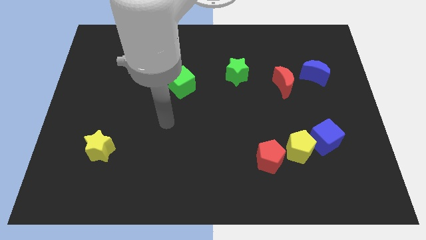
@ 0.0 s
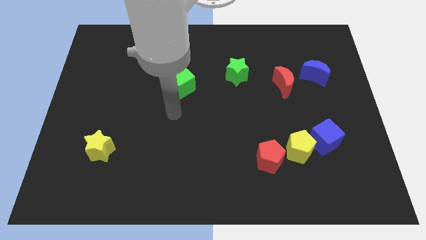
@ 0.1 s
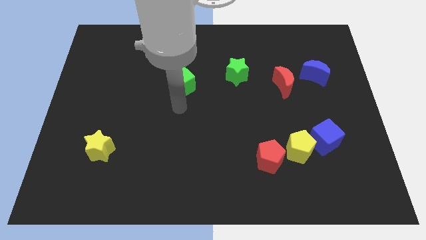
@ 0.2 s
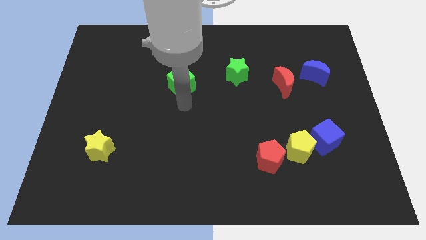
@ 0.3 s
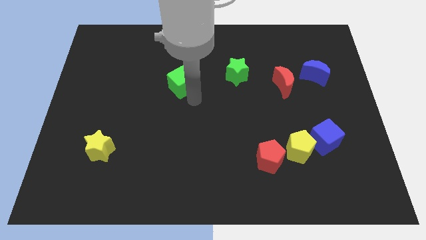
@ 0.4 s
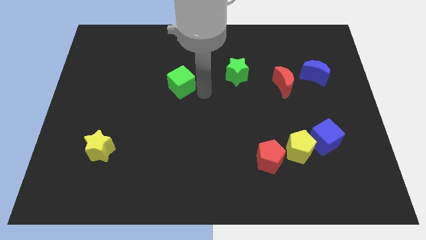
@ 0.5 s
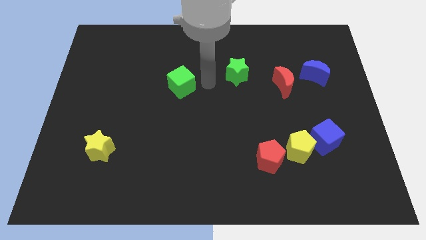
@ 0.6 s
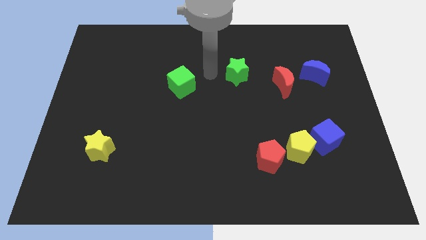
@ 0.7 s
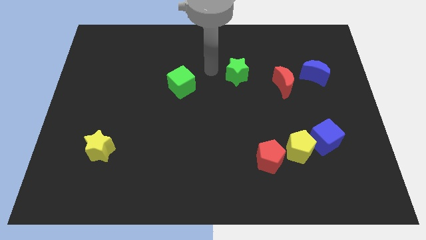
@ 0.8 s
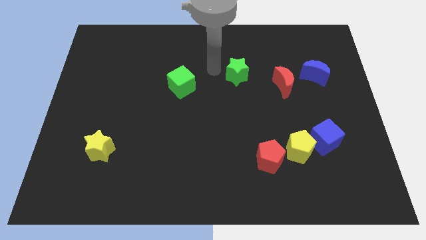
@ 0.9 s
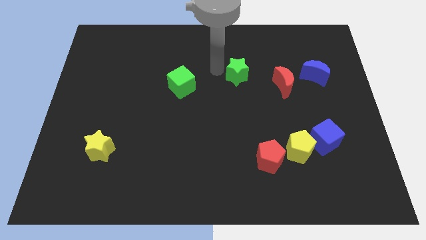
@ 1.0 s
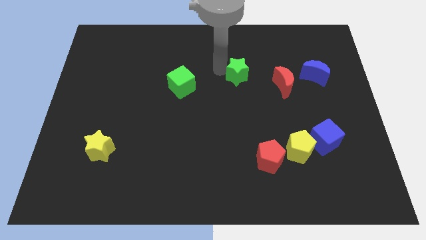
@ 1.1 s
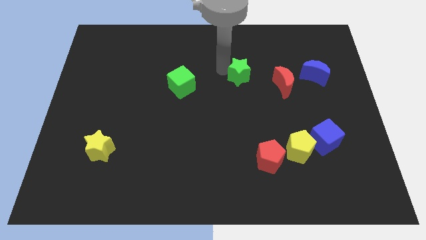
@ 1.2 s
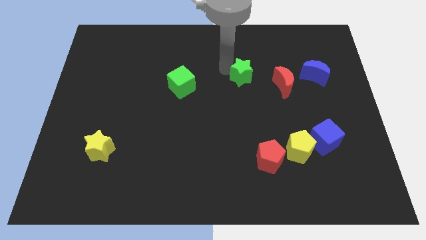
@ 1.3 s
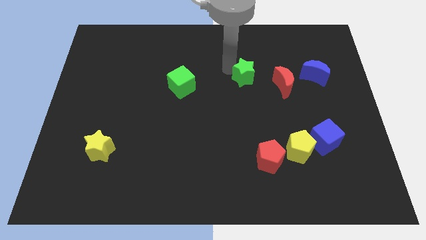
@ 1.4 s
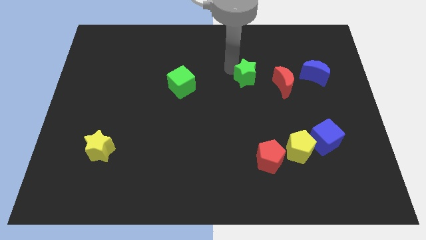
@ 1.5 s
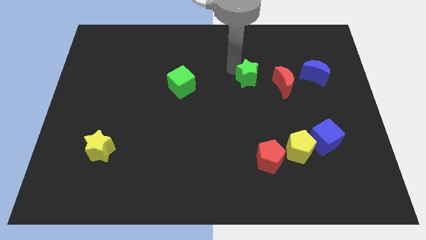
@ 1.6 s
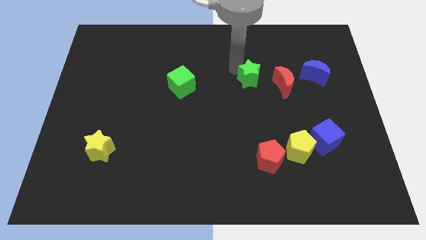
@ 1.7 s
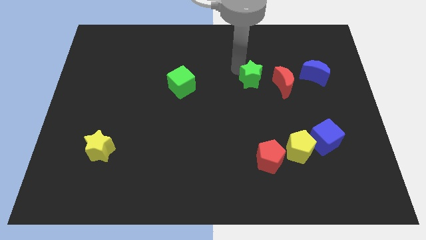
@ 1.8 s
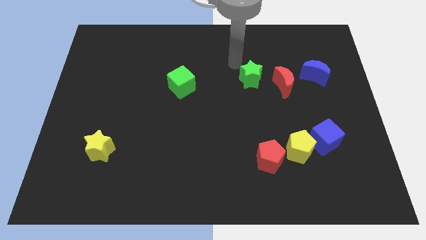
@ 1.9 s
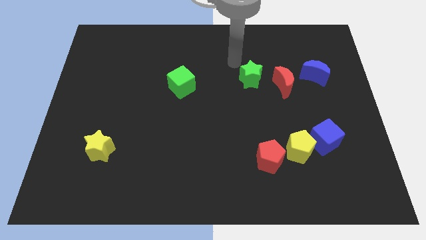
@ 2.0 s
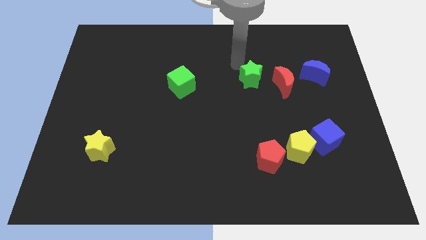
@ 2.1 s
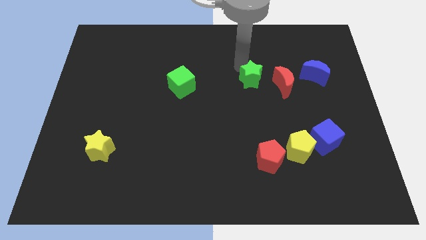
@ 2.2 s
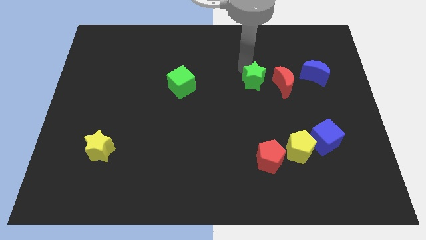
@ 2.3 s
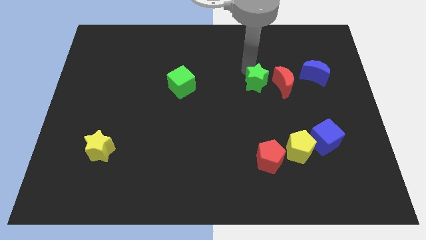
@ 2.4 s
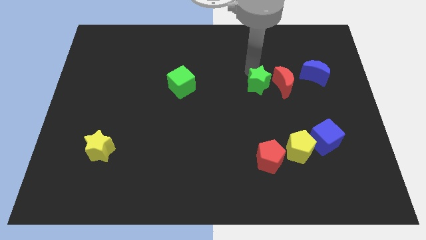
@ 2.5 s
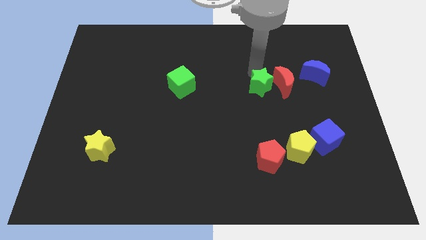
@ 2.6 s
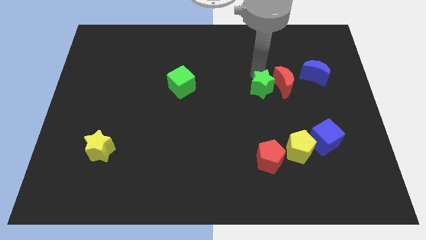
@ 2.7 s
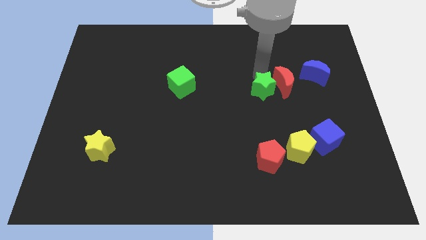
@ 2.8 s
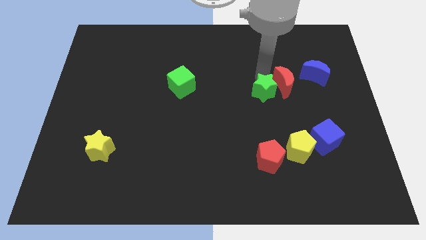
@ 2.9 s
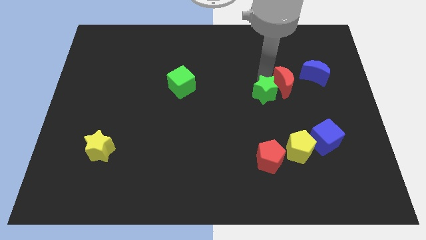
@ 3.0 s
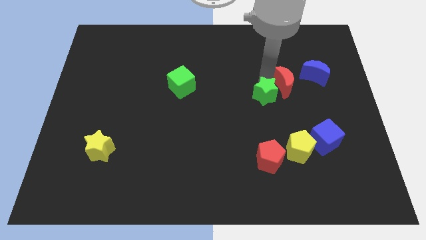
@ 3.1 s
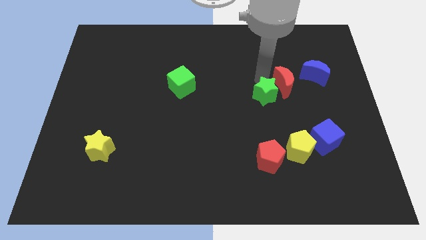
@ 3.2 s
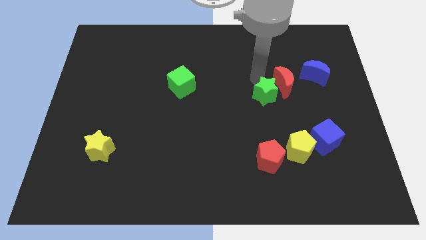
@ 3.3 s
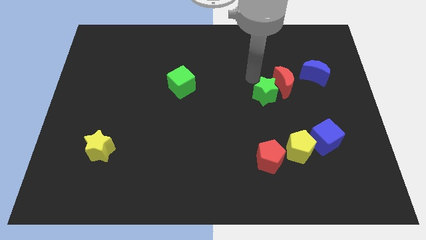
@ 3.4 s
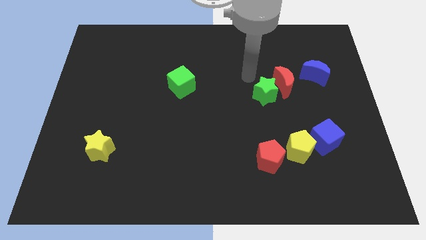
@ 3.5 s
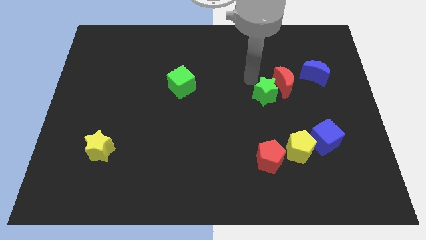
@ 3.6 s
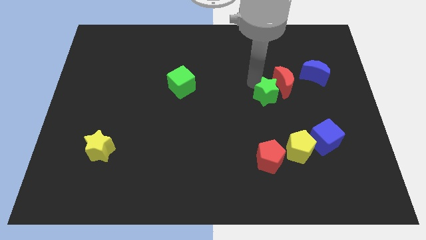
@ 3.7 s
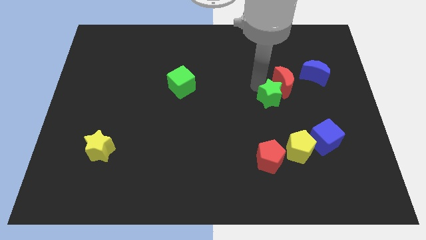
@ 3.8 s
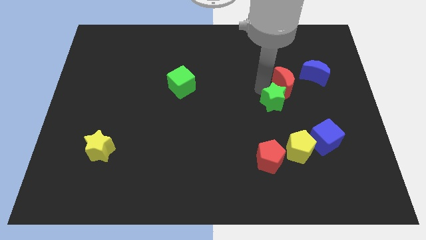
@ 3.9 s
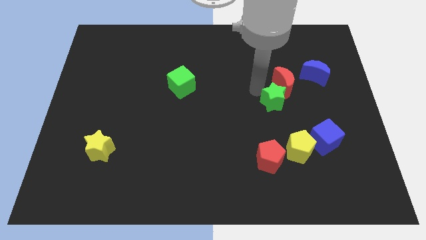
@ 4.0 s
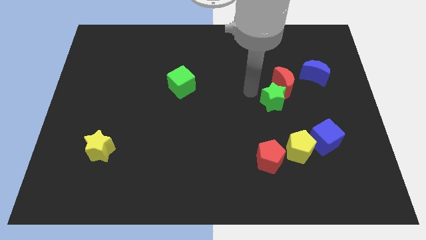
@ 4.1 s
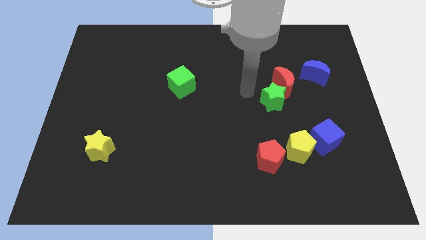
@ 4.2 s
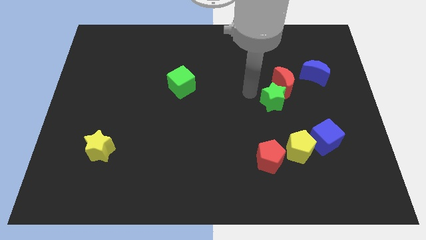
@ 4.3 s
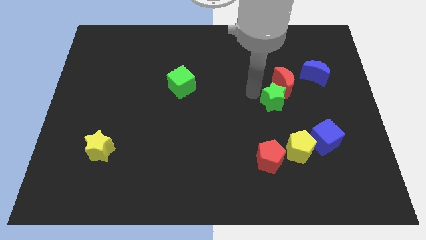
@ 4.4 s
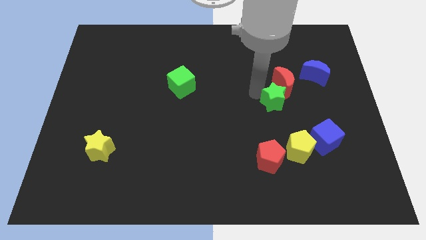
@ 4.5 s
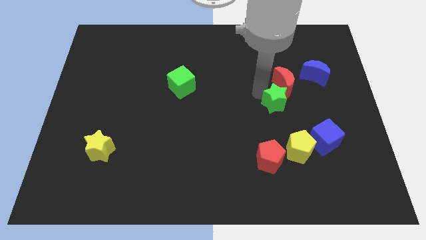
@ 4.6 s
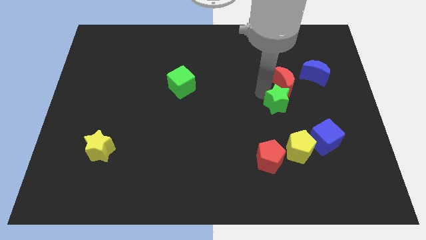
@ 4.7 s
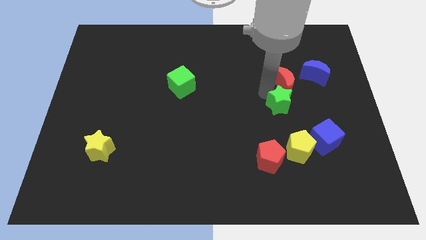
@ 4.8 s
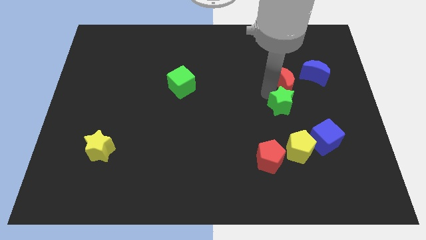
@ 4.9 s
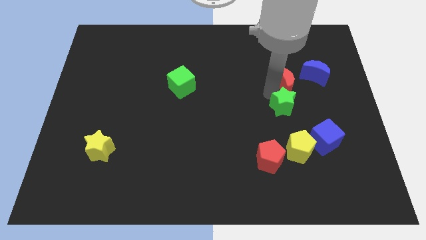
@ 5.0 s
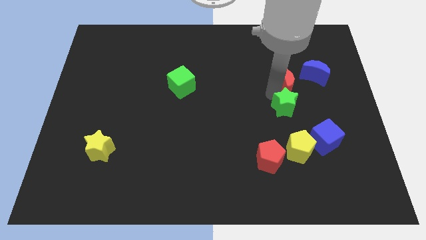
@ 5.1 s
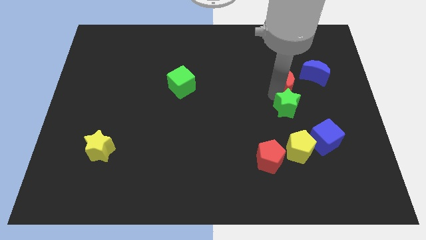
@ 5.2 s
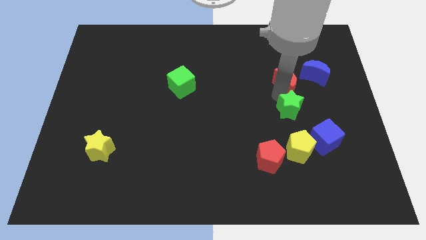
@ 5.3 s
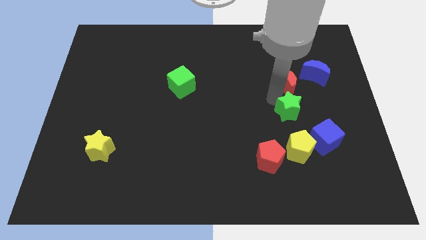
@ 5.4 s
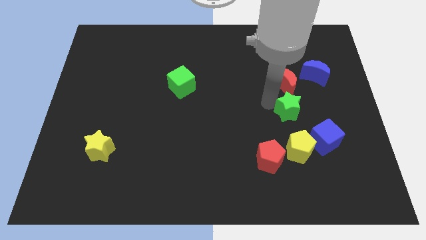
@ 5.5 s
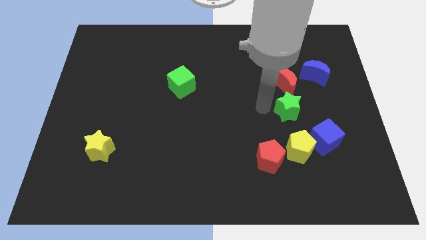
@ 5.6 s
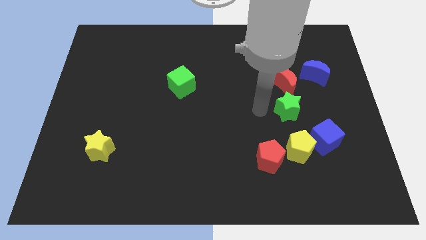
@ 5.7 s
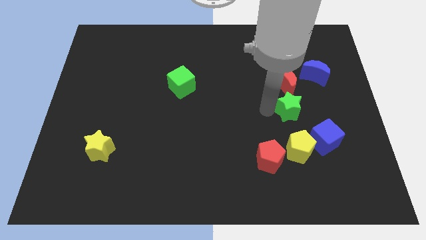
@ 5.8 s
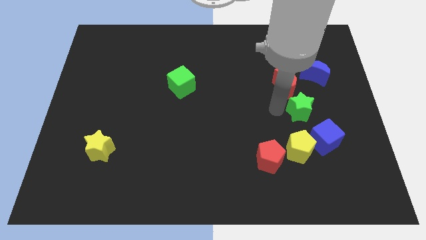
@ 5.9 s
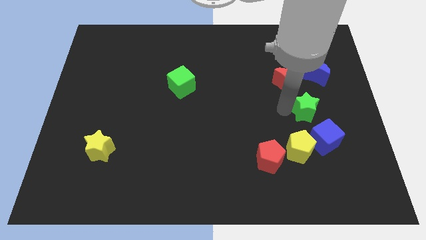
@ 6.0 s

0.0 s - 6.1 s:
push the green star to the bottom side of the blue moon

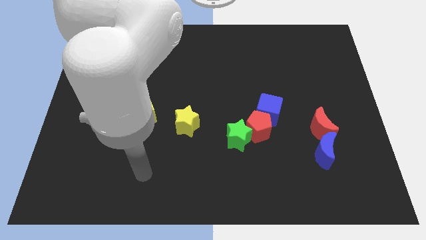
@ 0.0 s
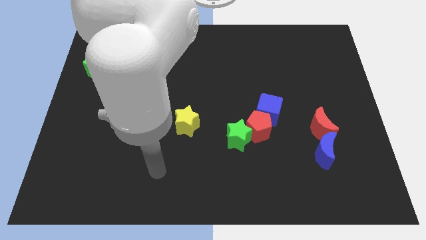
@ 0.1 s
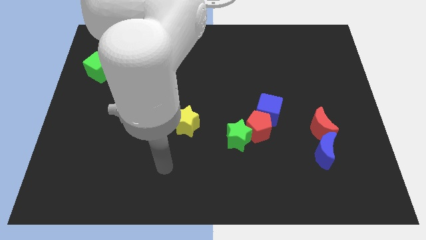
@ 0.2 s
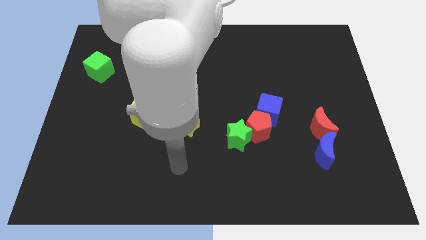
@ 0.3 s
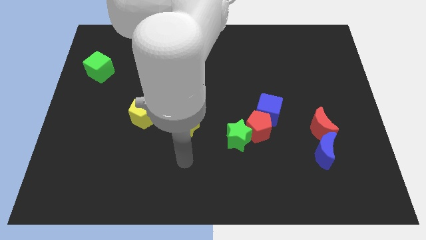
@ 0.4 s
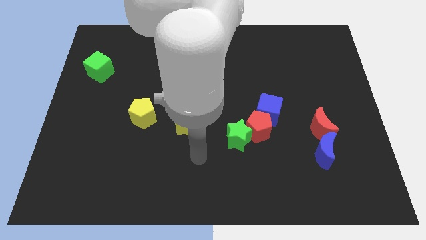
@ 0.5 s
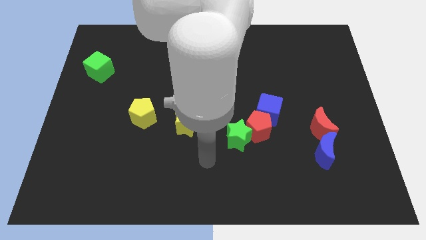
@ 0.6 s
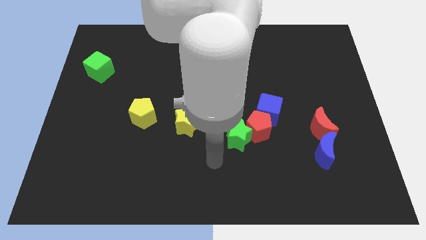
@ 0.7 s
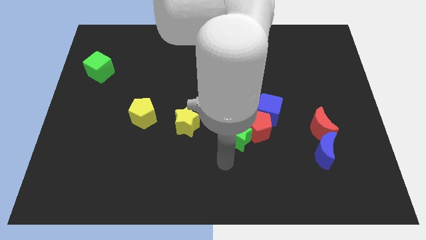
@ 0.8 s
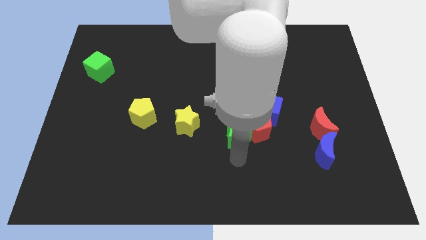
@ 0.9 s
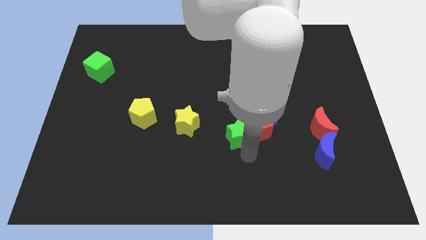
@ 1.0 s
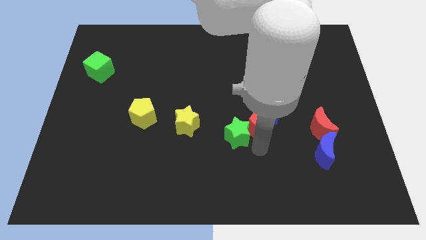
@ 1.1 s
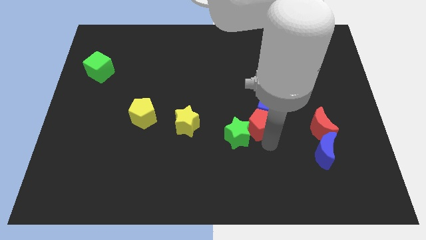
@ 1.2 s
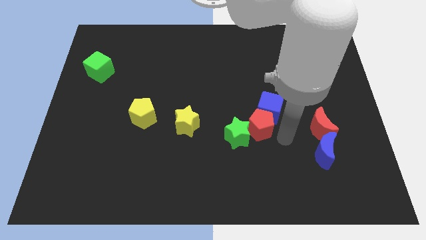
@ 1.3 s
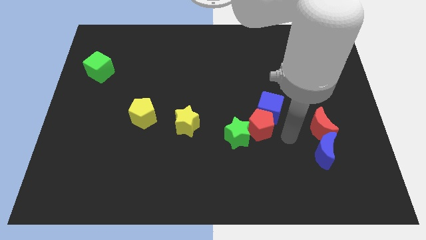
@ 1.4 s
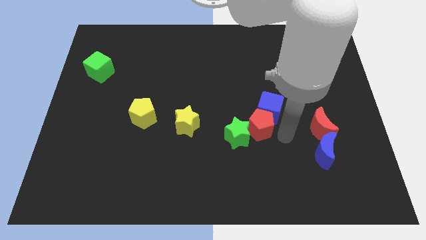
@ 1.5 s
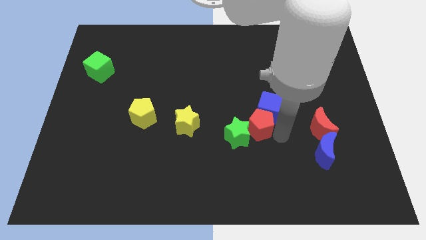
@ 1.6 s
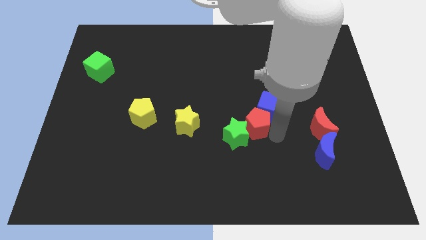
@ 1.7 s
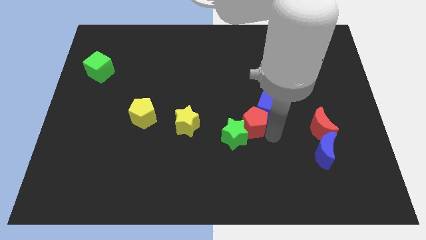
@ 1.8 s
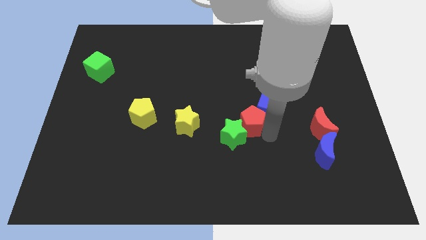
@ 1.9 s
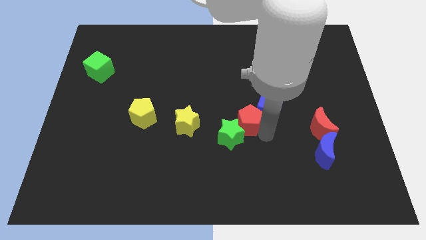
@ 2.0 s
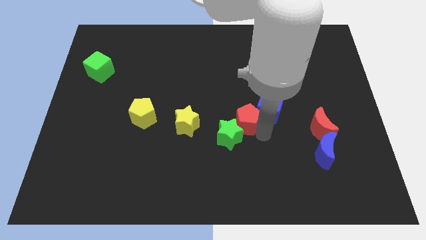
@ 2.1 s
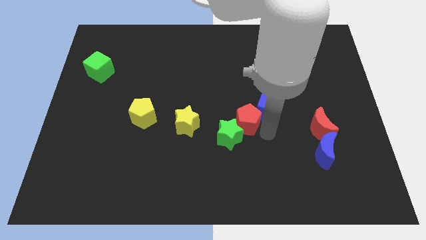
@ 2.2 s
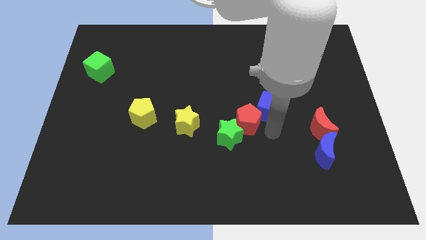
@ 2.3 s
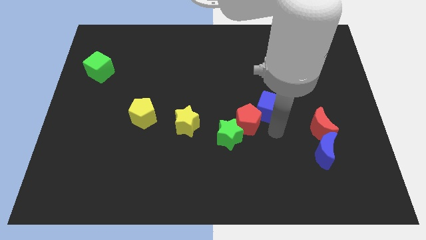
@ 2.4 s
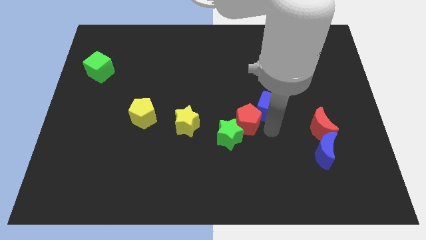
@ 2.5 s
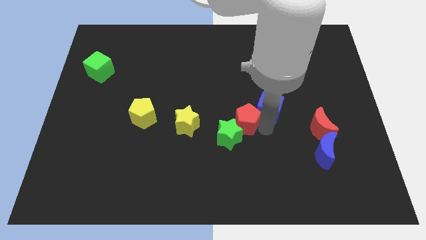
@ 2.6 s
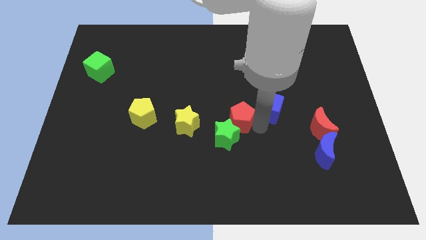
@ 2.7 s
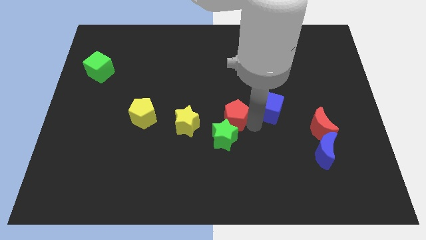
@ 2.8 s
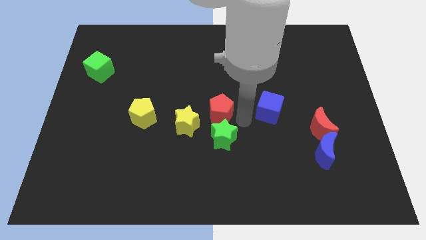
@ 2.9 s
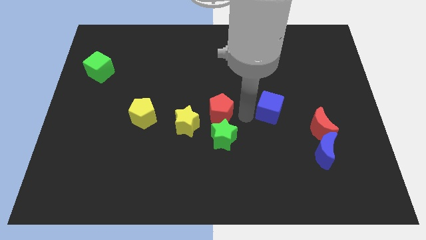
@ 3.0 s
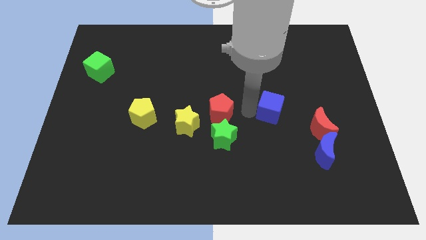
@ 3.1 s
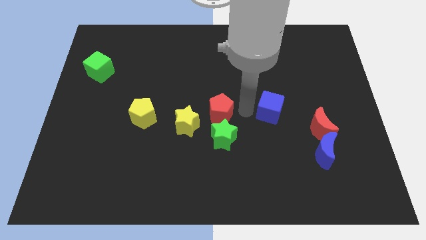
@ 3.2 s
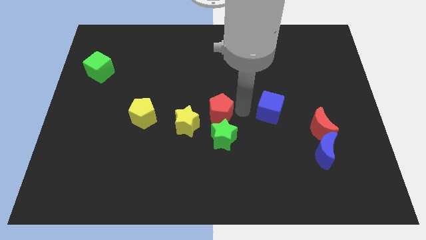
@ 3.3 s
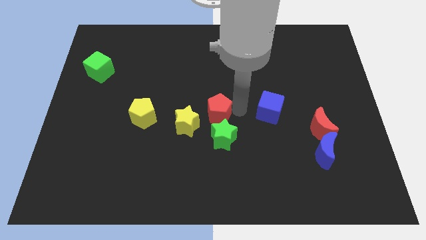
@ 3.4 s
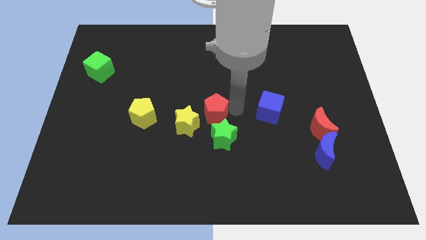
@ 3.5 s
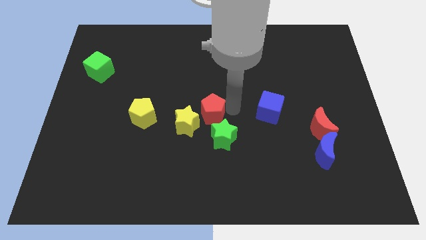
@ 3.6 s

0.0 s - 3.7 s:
slide the red pentagon right of the yellow pentagon
